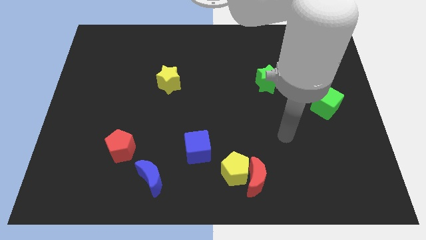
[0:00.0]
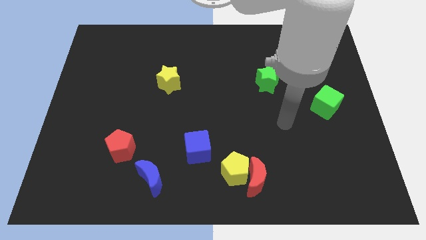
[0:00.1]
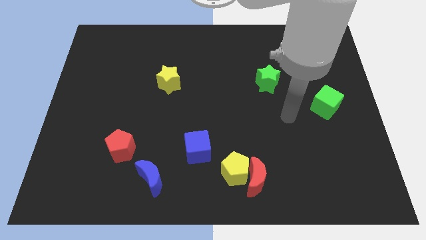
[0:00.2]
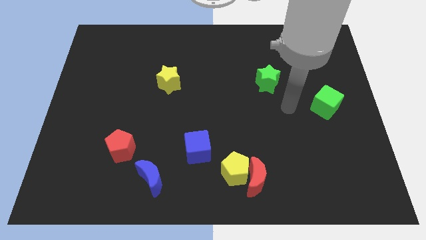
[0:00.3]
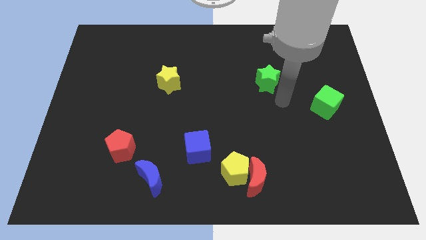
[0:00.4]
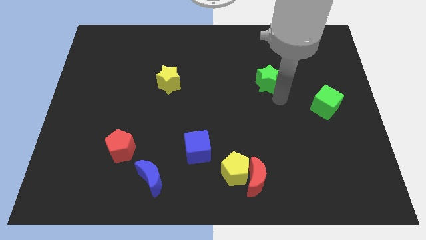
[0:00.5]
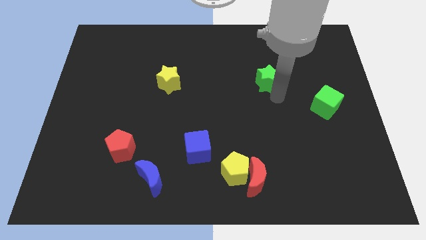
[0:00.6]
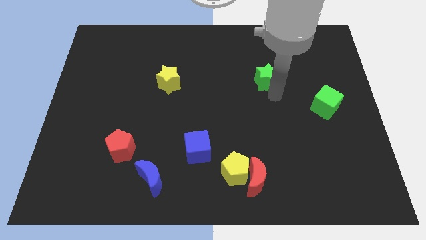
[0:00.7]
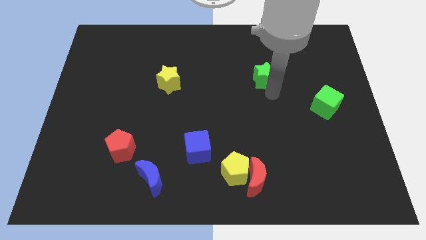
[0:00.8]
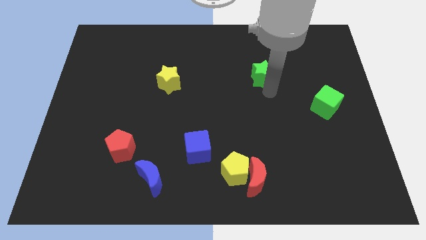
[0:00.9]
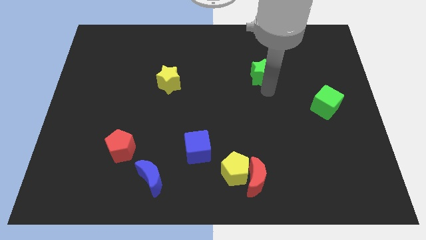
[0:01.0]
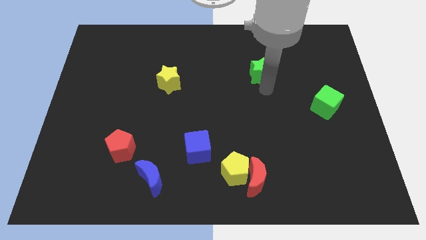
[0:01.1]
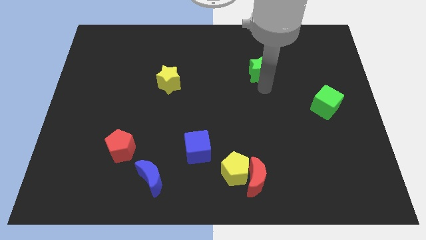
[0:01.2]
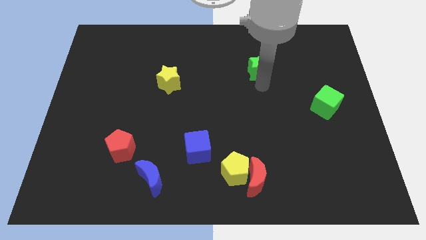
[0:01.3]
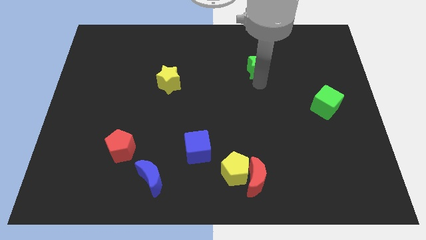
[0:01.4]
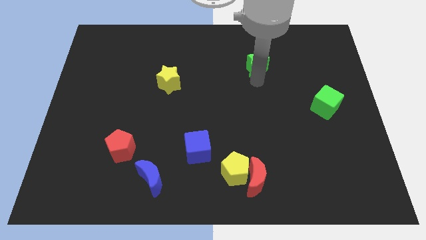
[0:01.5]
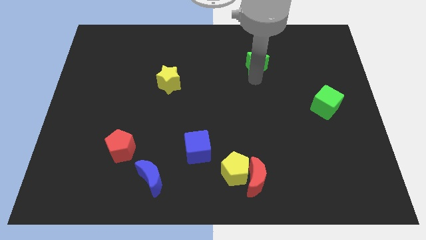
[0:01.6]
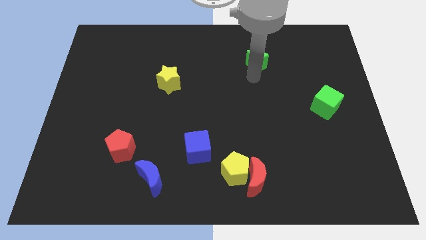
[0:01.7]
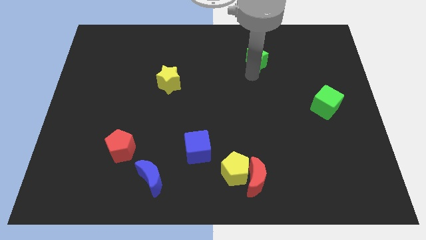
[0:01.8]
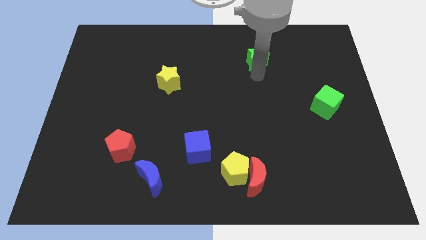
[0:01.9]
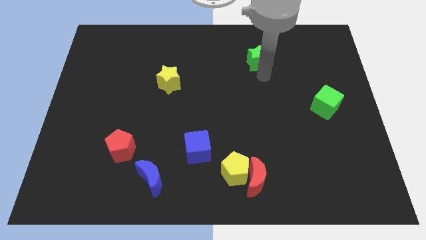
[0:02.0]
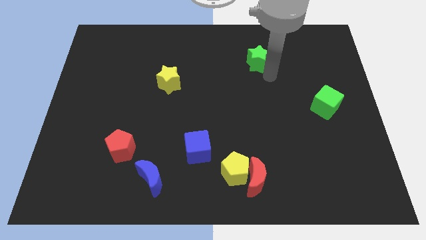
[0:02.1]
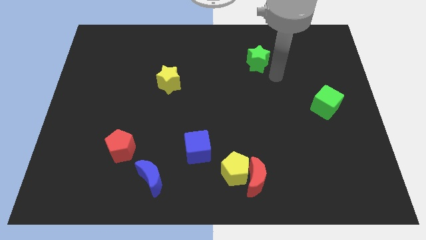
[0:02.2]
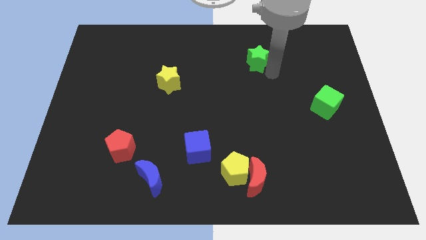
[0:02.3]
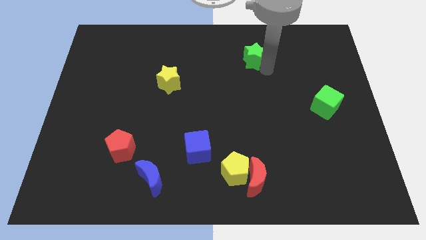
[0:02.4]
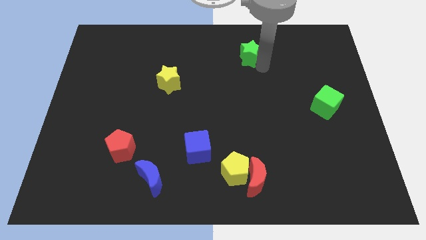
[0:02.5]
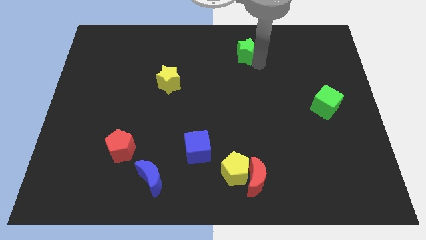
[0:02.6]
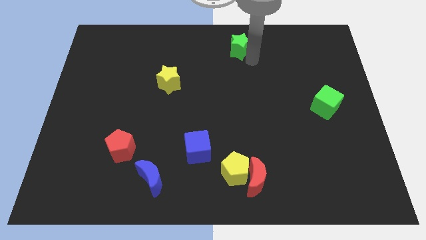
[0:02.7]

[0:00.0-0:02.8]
slide the green star to the top side

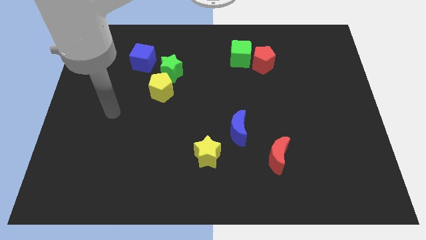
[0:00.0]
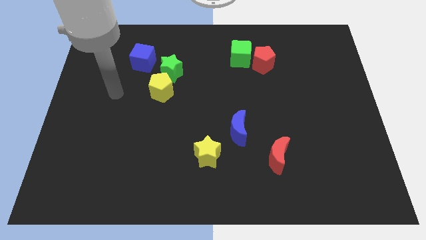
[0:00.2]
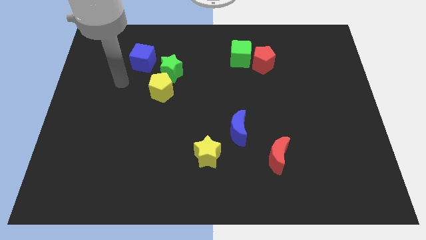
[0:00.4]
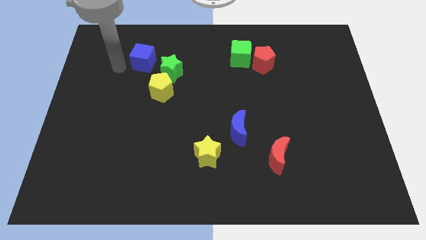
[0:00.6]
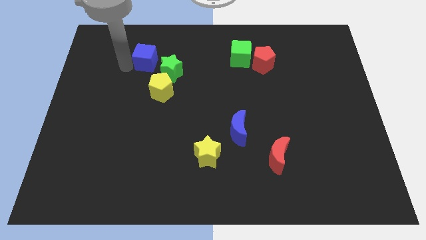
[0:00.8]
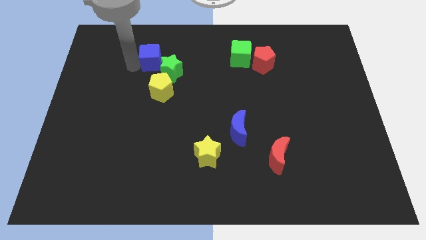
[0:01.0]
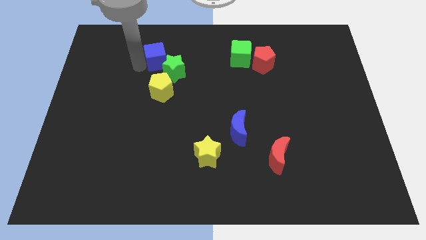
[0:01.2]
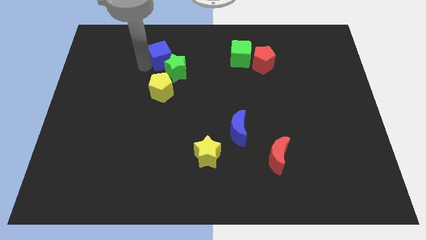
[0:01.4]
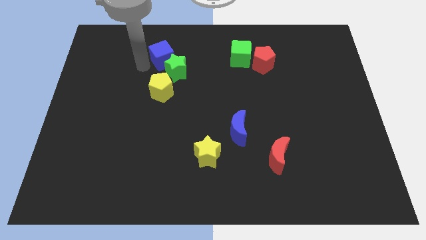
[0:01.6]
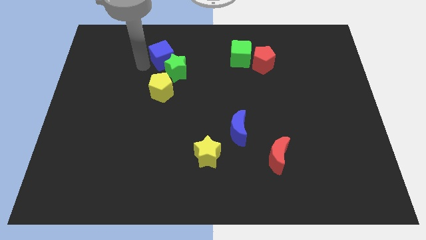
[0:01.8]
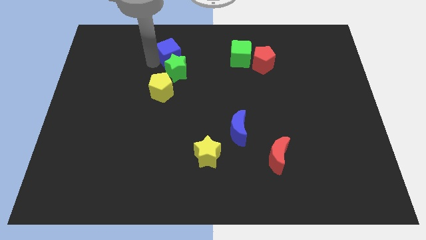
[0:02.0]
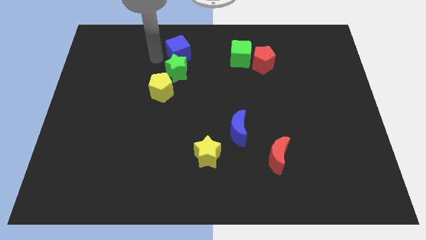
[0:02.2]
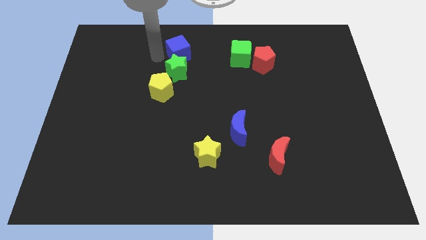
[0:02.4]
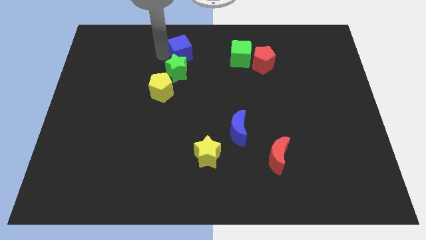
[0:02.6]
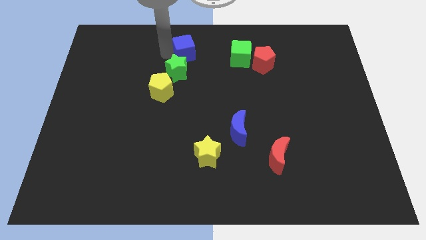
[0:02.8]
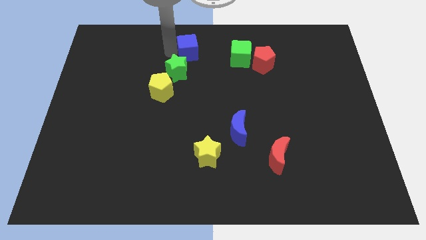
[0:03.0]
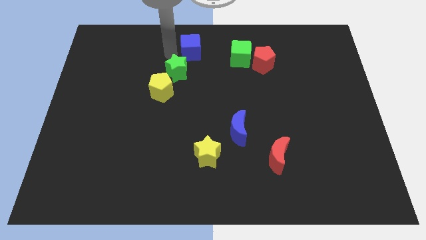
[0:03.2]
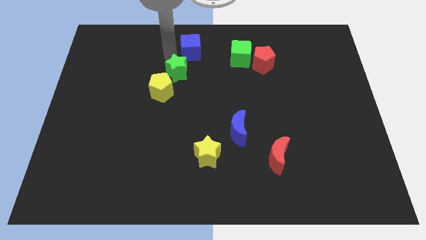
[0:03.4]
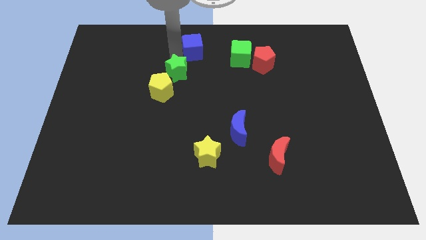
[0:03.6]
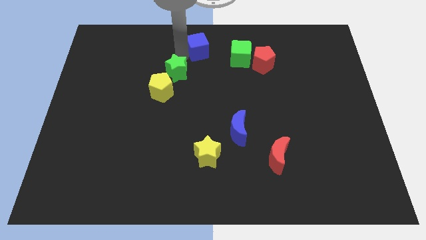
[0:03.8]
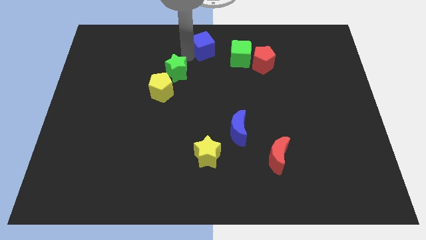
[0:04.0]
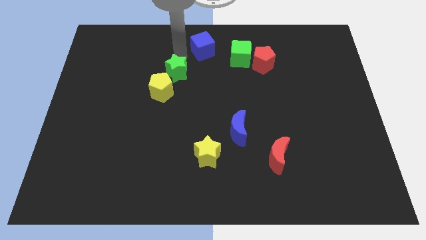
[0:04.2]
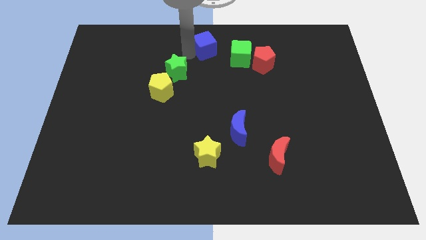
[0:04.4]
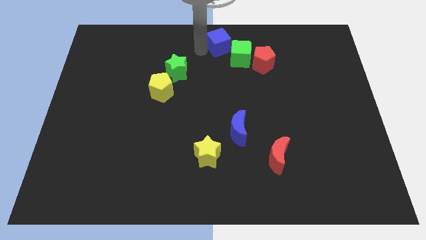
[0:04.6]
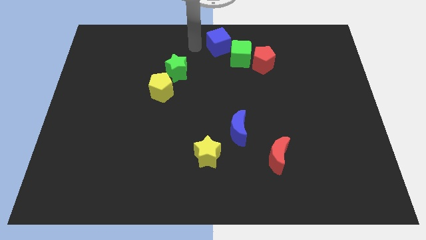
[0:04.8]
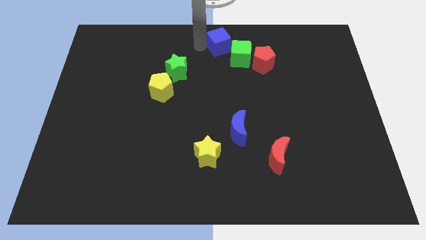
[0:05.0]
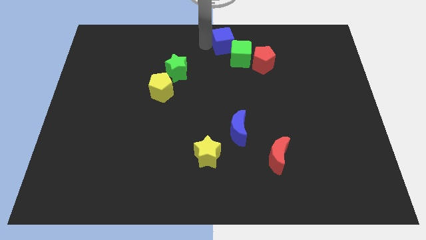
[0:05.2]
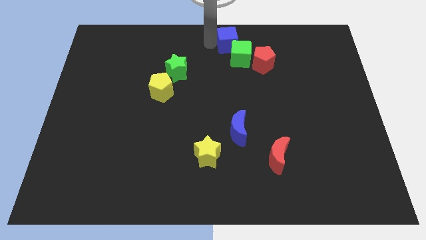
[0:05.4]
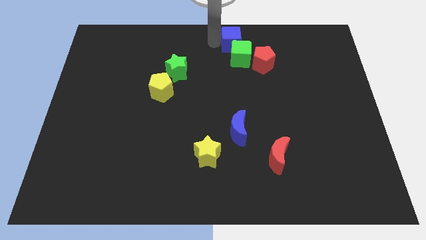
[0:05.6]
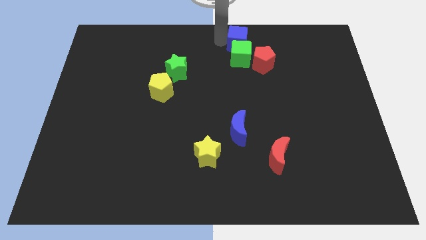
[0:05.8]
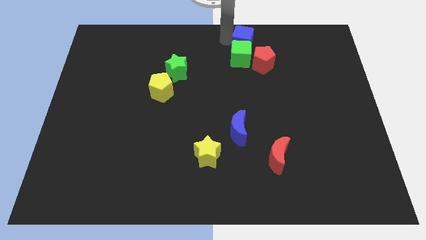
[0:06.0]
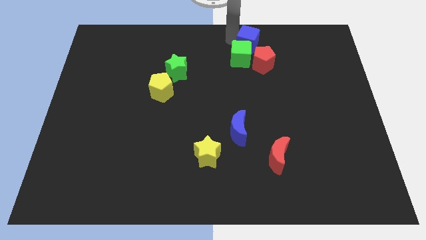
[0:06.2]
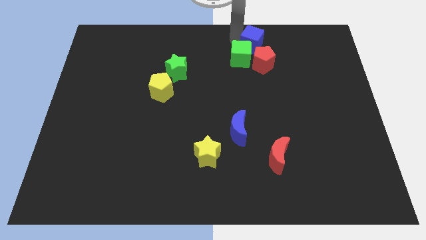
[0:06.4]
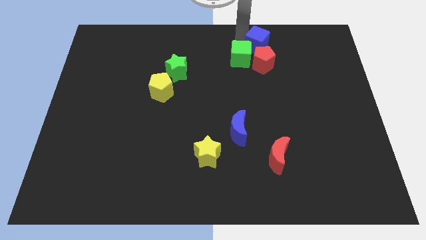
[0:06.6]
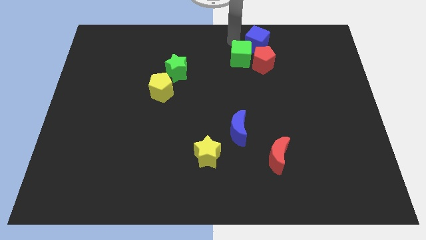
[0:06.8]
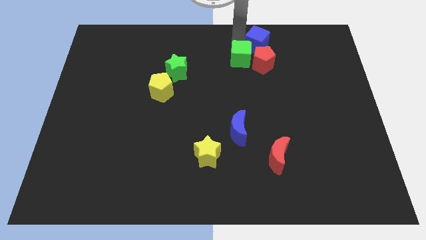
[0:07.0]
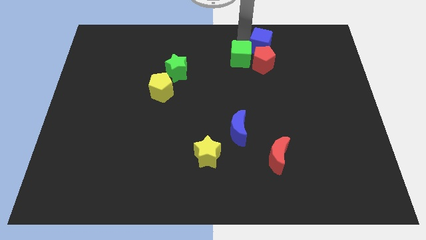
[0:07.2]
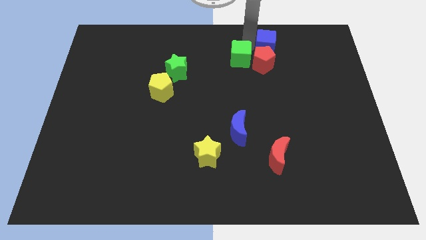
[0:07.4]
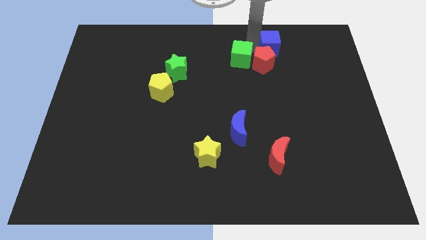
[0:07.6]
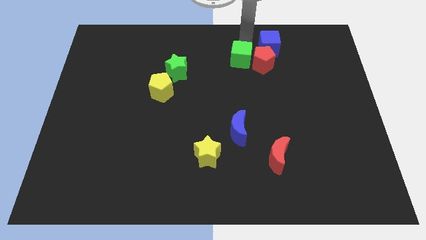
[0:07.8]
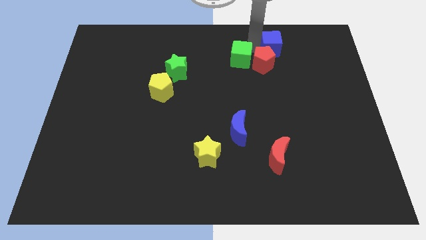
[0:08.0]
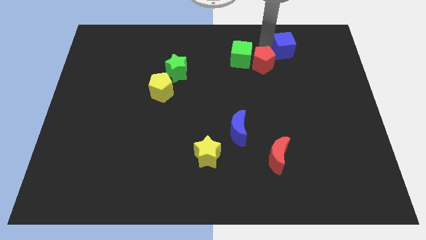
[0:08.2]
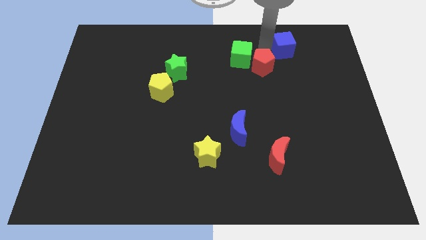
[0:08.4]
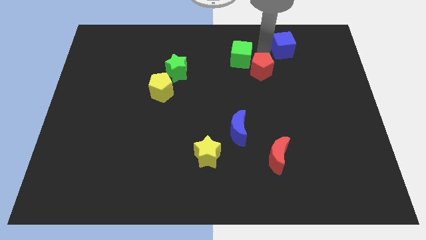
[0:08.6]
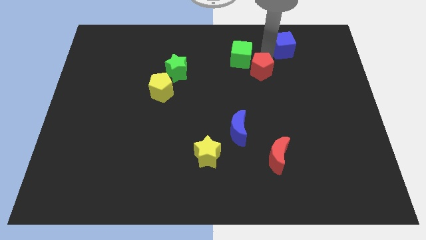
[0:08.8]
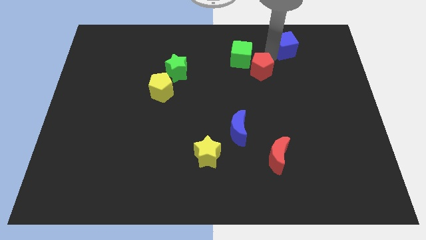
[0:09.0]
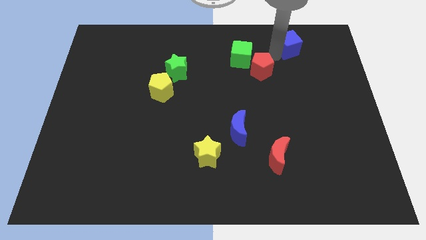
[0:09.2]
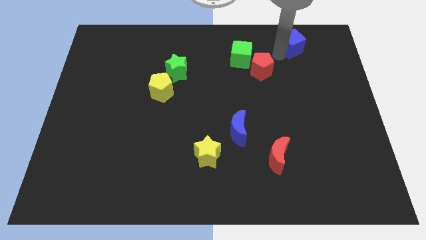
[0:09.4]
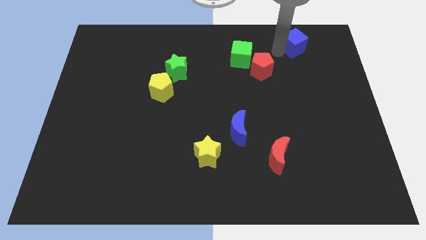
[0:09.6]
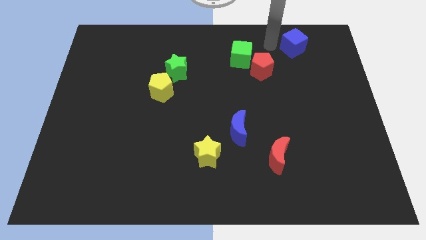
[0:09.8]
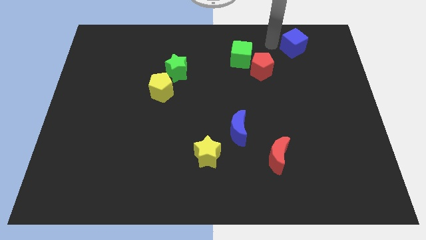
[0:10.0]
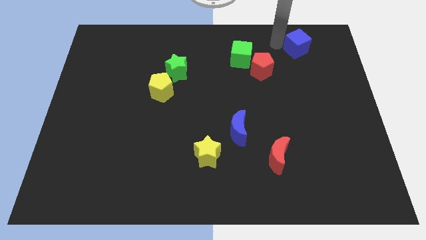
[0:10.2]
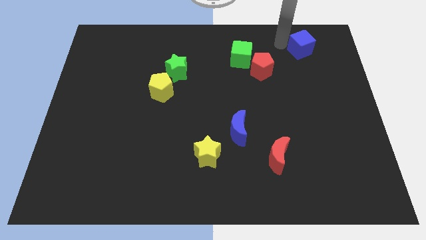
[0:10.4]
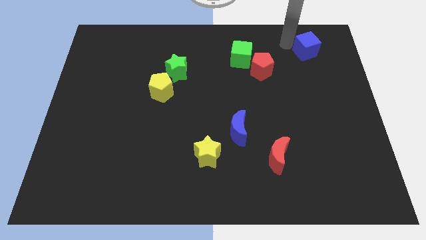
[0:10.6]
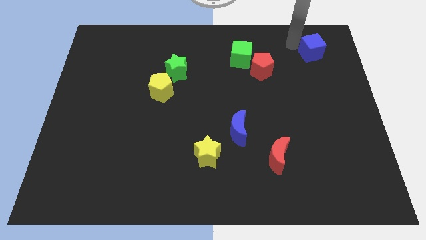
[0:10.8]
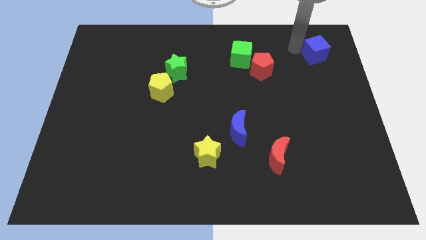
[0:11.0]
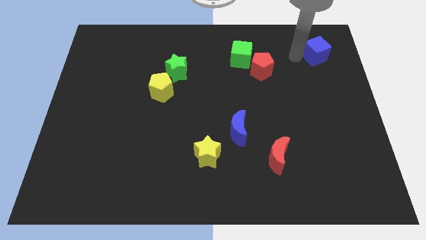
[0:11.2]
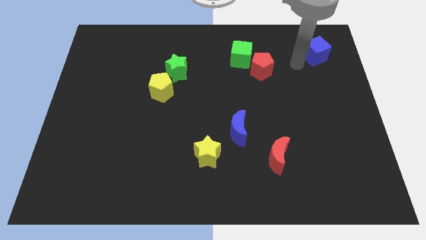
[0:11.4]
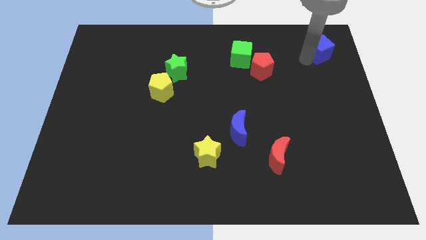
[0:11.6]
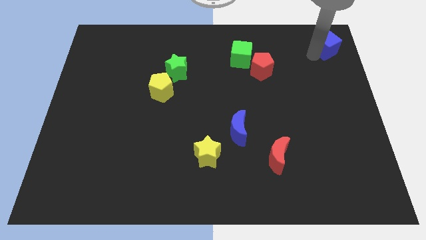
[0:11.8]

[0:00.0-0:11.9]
slide the blue cube to the upper right corner
